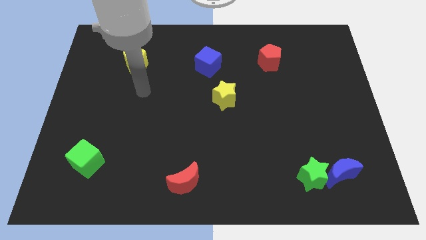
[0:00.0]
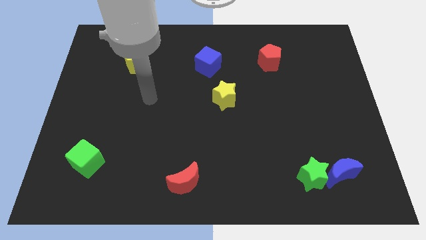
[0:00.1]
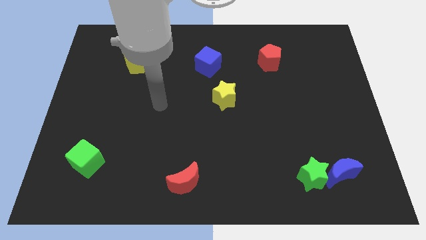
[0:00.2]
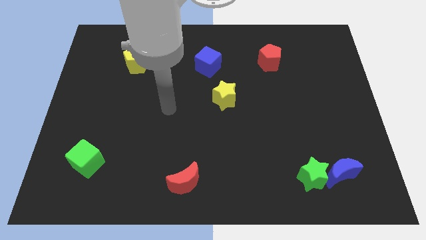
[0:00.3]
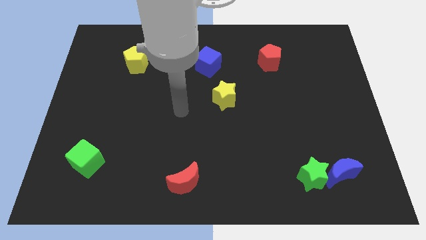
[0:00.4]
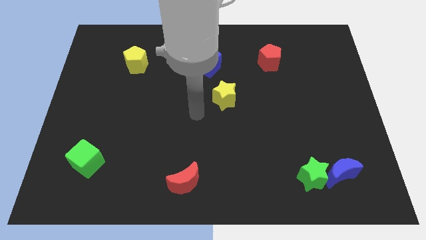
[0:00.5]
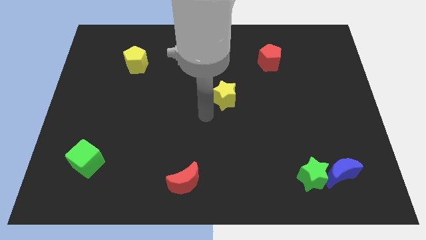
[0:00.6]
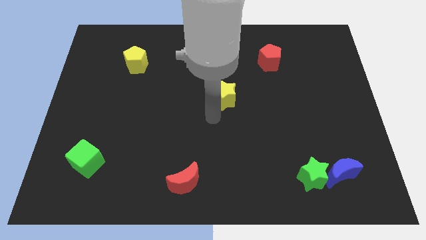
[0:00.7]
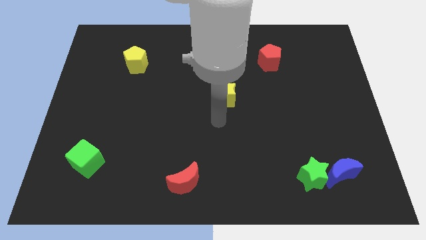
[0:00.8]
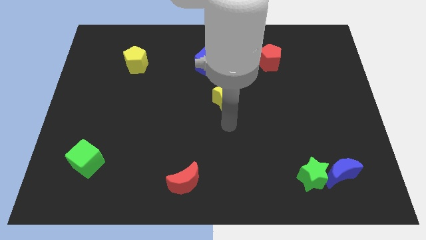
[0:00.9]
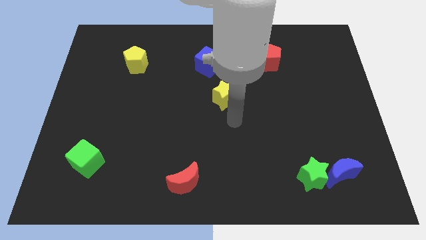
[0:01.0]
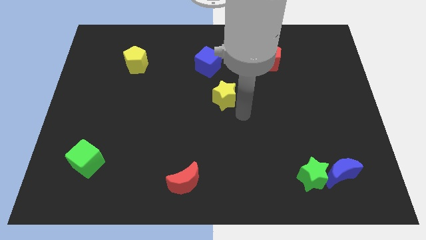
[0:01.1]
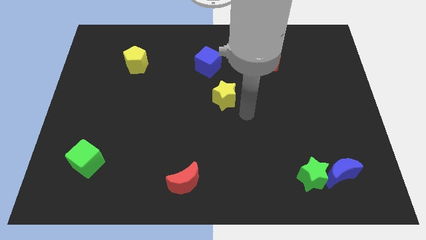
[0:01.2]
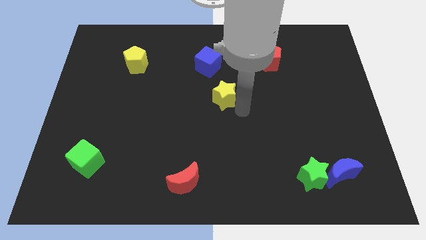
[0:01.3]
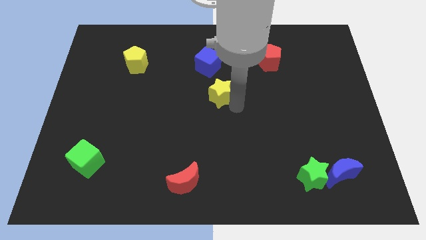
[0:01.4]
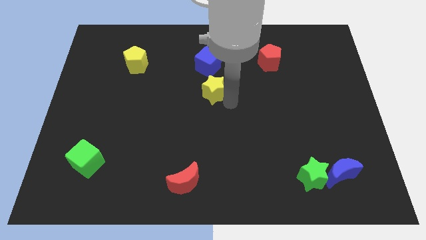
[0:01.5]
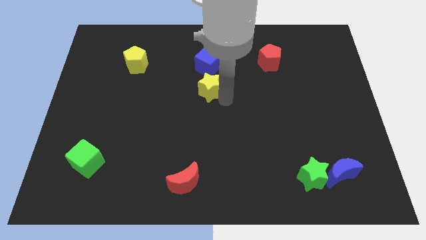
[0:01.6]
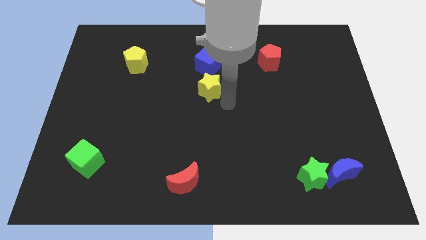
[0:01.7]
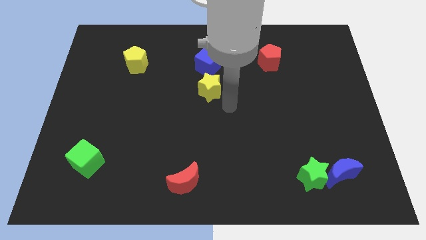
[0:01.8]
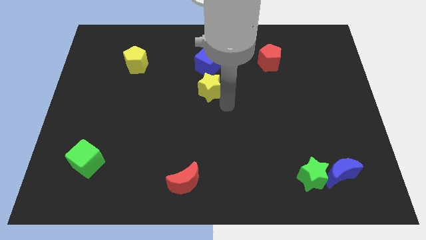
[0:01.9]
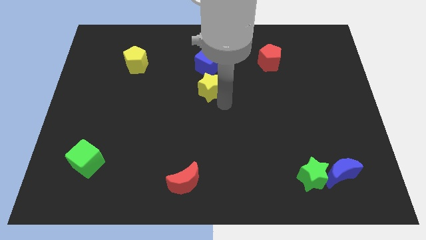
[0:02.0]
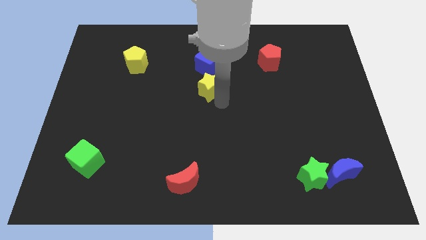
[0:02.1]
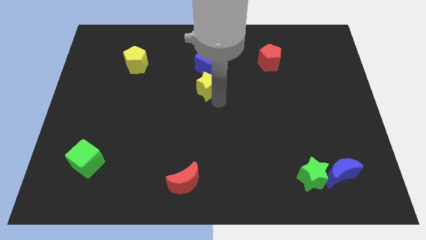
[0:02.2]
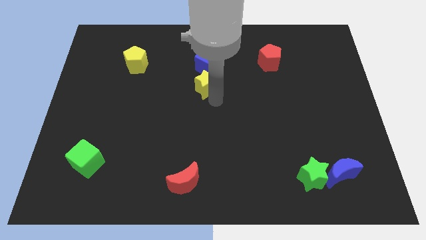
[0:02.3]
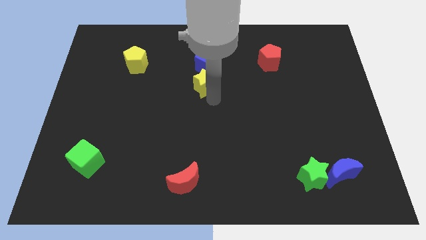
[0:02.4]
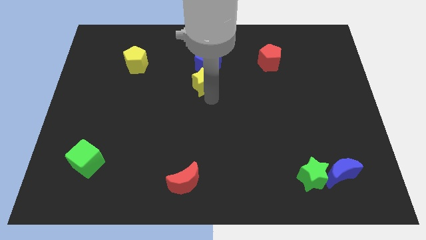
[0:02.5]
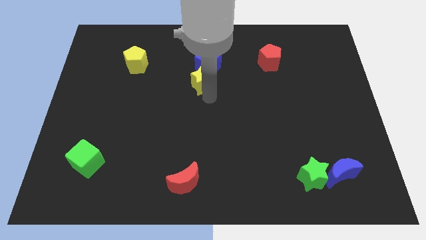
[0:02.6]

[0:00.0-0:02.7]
push the yellow star up and left diagonally a little bit

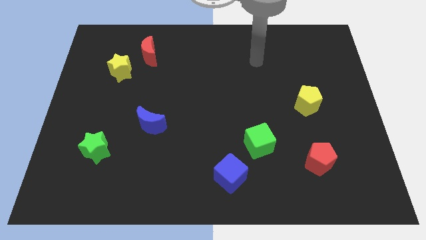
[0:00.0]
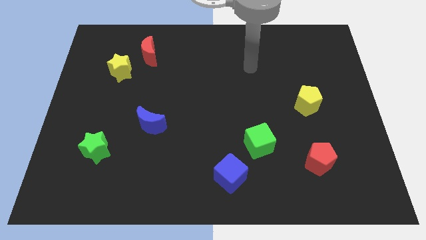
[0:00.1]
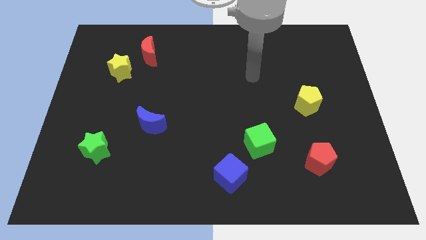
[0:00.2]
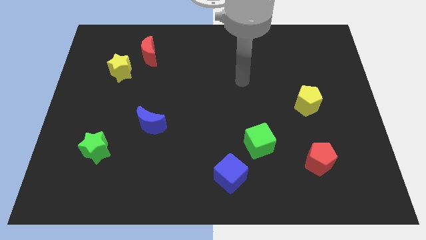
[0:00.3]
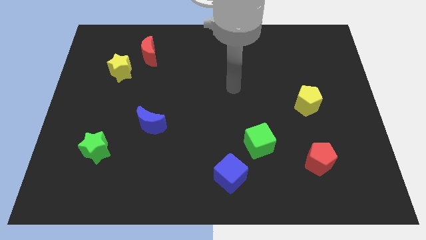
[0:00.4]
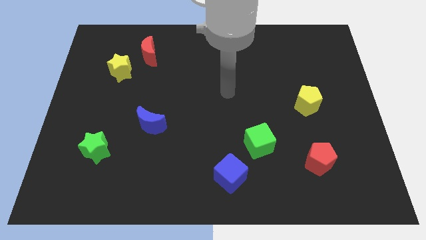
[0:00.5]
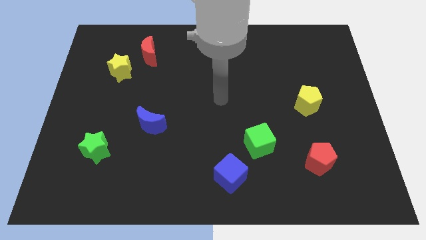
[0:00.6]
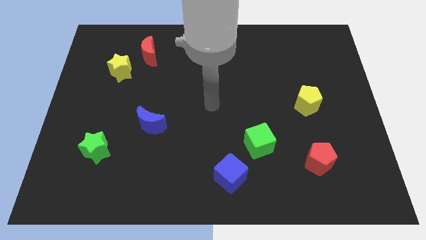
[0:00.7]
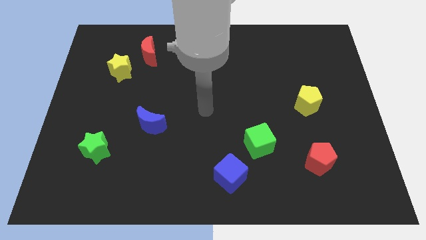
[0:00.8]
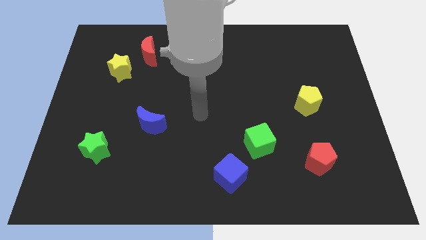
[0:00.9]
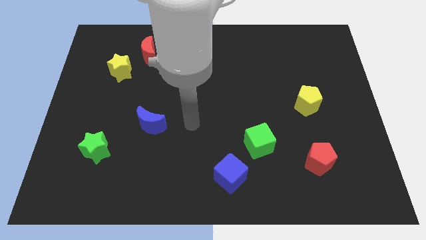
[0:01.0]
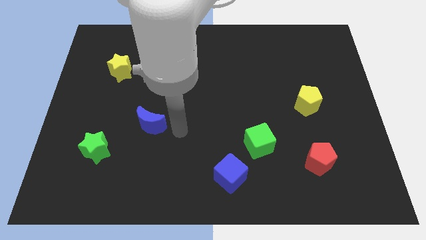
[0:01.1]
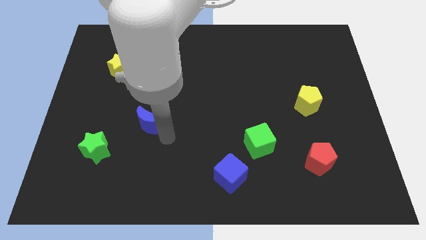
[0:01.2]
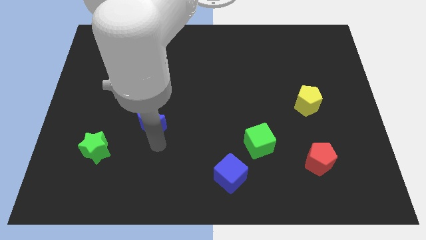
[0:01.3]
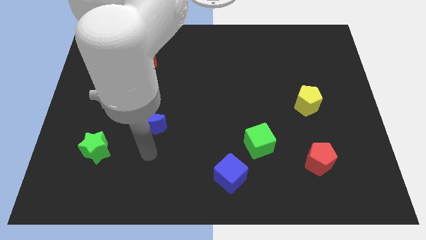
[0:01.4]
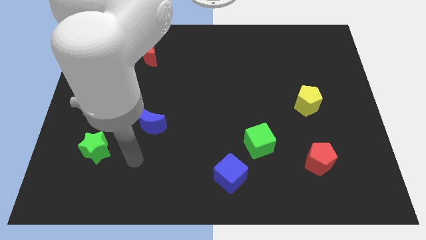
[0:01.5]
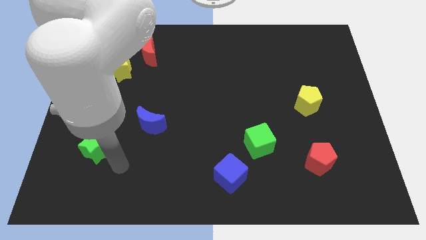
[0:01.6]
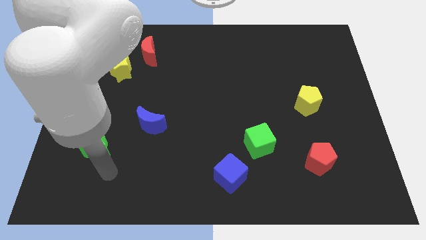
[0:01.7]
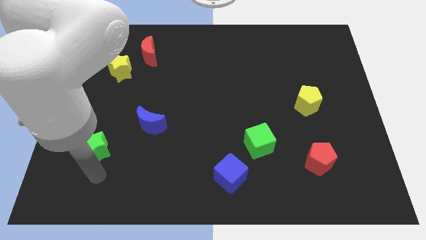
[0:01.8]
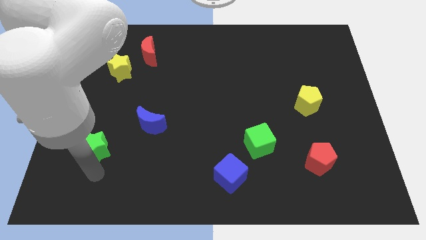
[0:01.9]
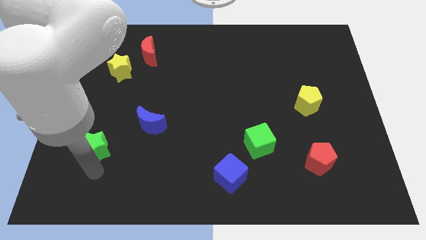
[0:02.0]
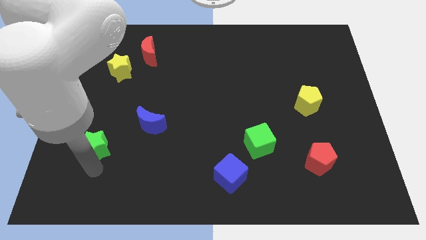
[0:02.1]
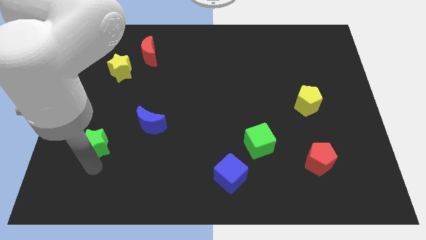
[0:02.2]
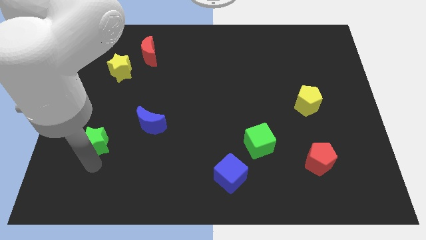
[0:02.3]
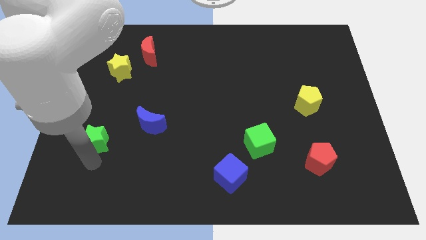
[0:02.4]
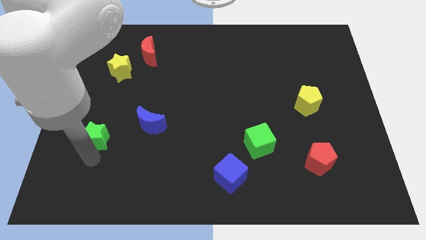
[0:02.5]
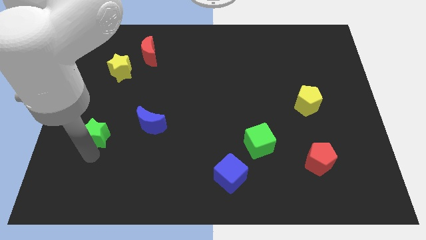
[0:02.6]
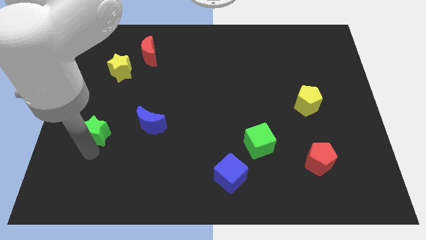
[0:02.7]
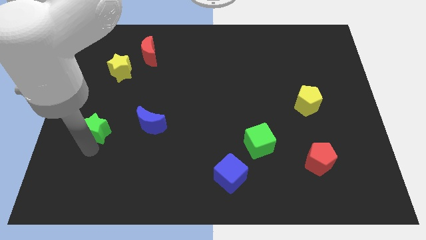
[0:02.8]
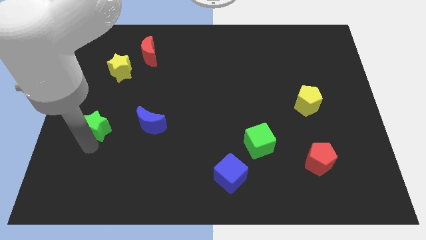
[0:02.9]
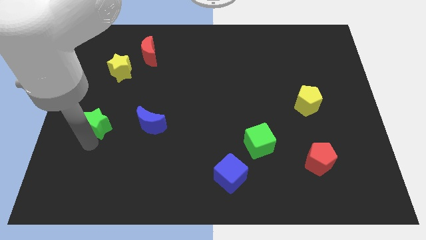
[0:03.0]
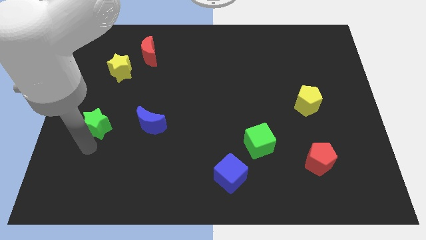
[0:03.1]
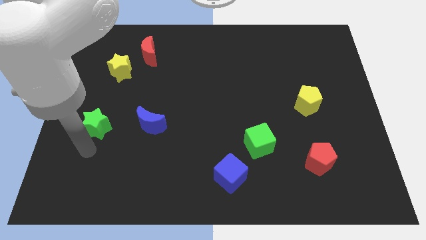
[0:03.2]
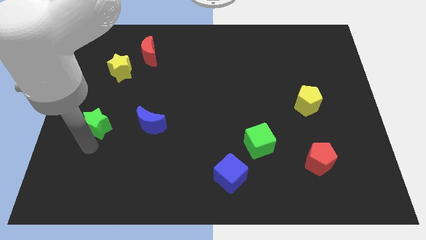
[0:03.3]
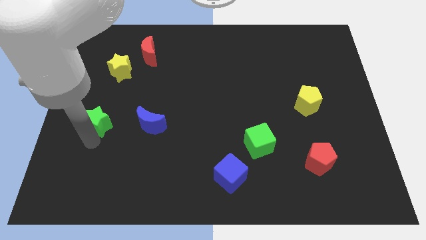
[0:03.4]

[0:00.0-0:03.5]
push the green star slightly up

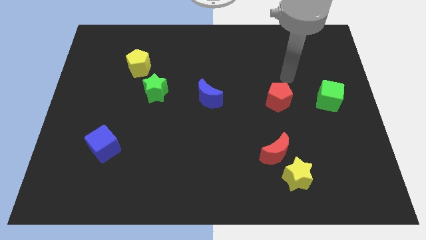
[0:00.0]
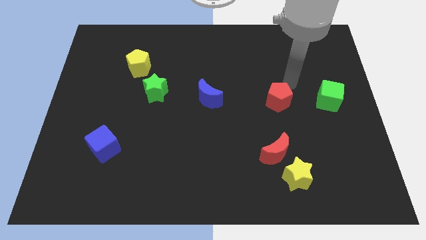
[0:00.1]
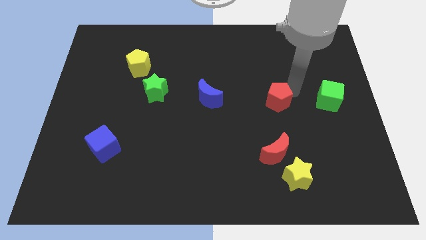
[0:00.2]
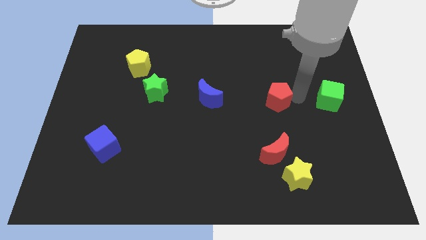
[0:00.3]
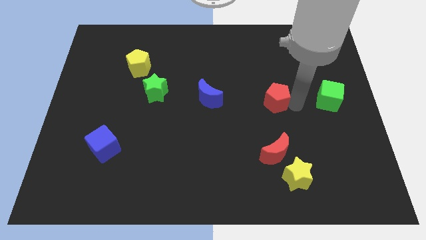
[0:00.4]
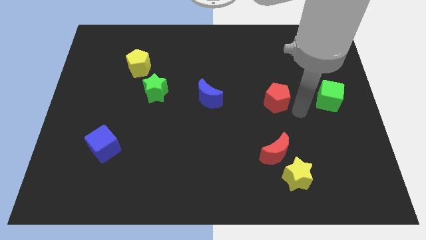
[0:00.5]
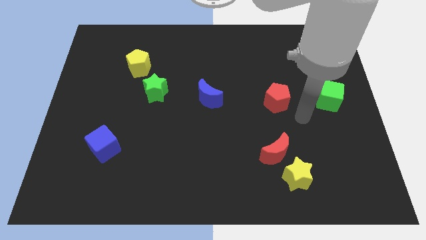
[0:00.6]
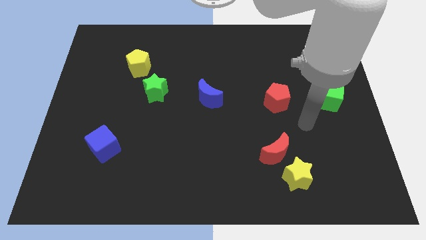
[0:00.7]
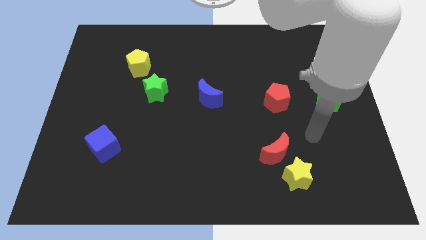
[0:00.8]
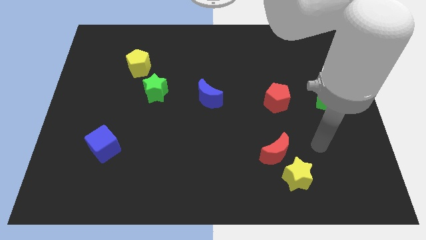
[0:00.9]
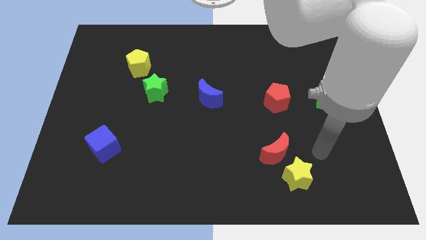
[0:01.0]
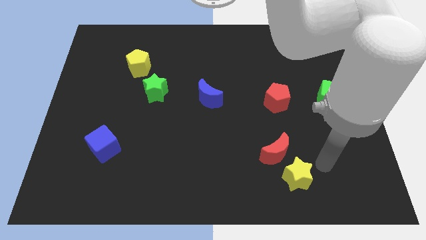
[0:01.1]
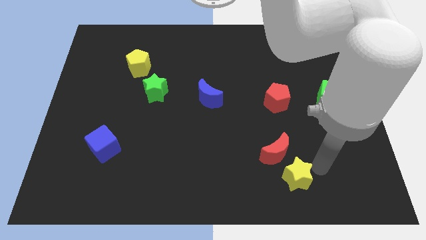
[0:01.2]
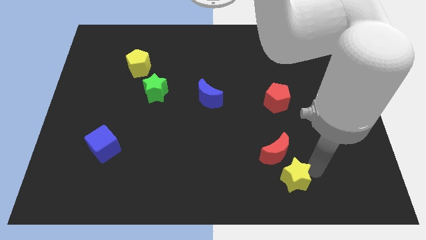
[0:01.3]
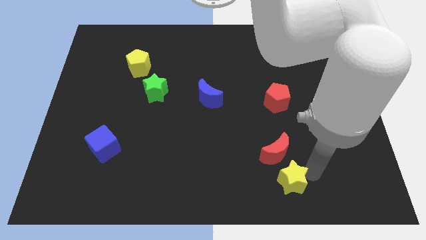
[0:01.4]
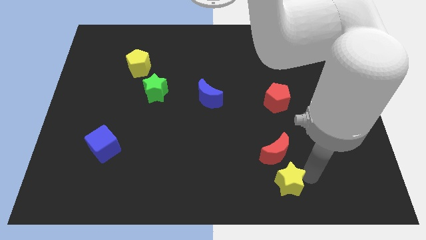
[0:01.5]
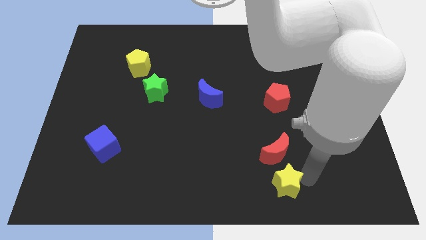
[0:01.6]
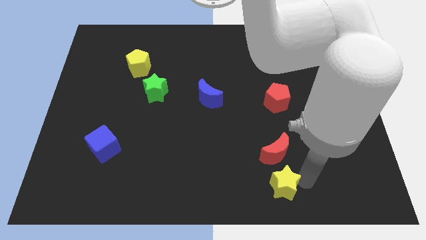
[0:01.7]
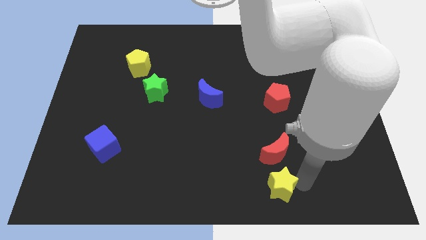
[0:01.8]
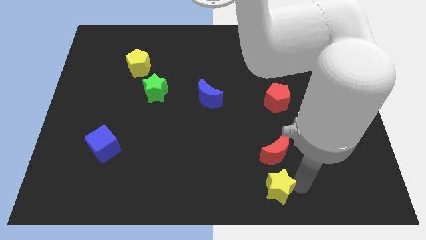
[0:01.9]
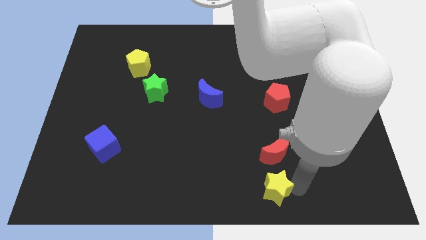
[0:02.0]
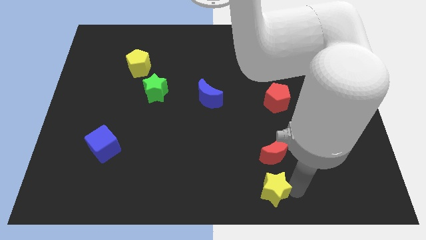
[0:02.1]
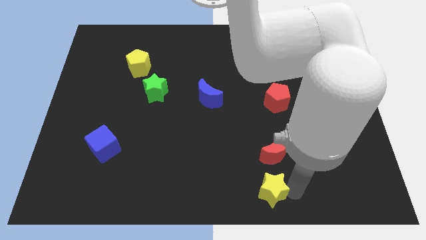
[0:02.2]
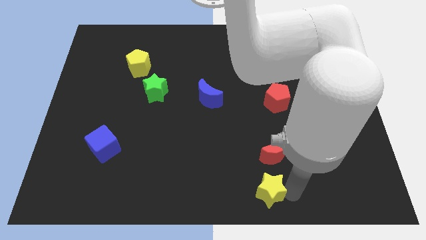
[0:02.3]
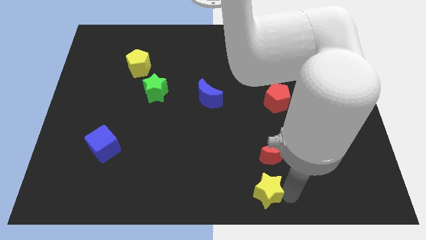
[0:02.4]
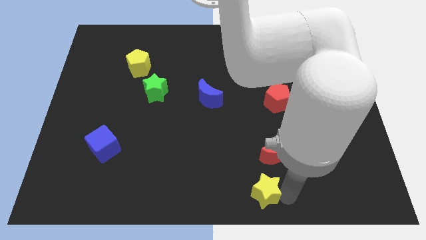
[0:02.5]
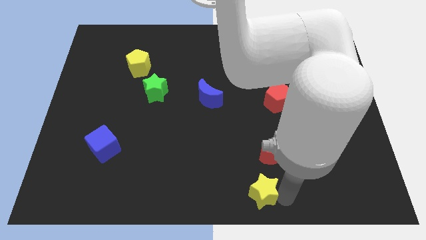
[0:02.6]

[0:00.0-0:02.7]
slide the yellow star a bit left
